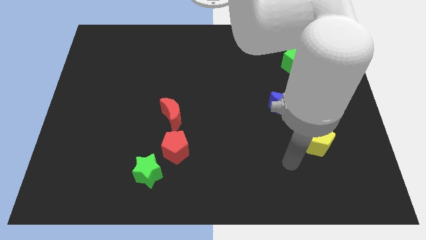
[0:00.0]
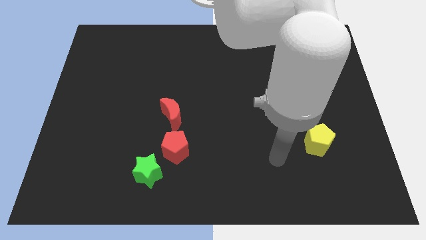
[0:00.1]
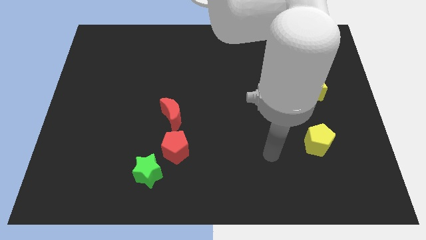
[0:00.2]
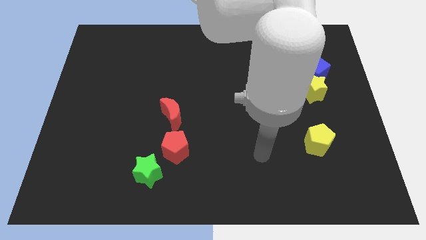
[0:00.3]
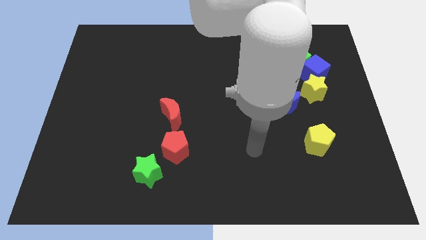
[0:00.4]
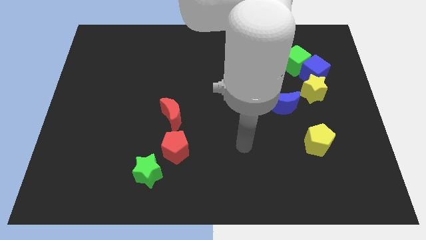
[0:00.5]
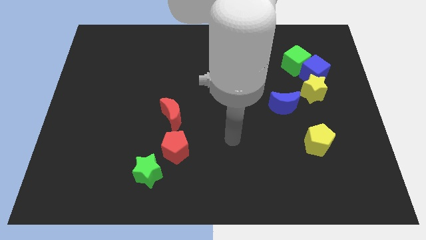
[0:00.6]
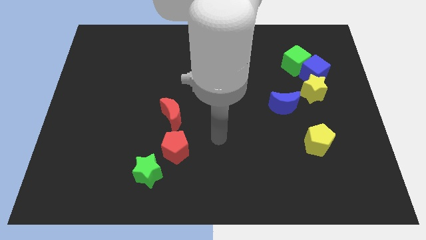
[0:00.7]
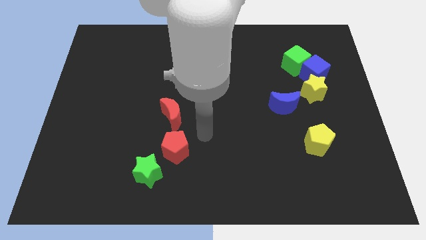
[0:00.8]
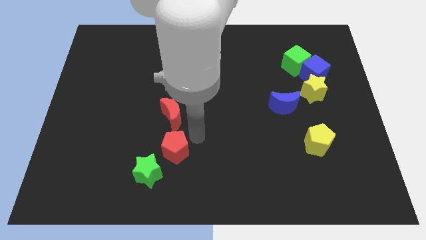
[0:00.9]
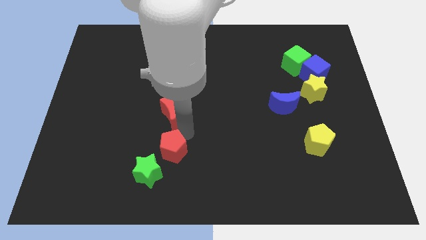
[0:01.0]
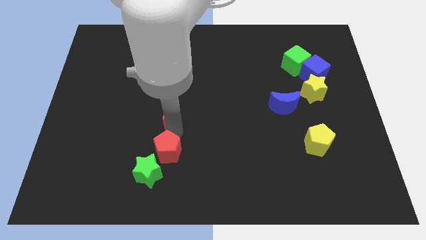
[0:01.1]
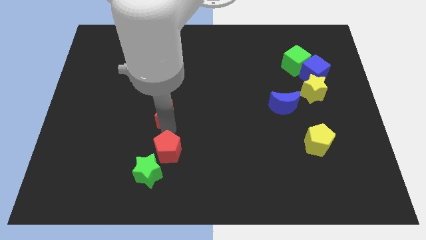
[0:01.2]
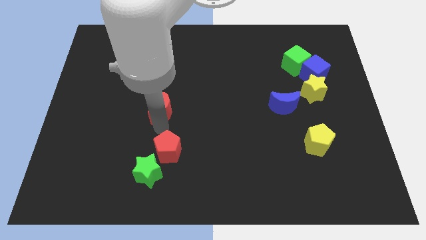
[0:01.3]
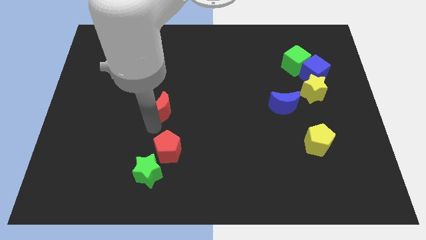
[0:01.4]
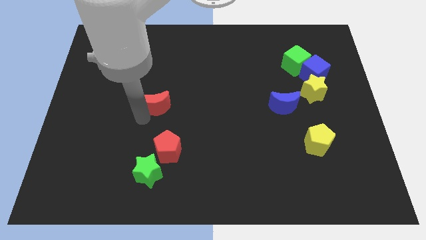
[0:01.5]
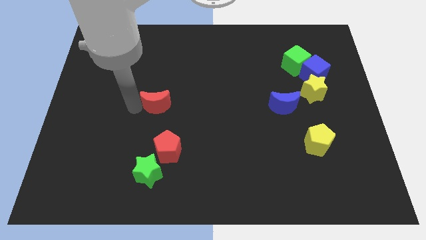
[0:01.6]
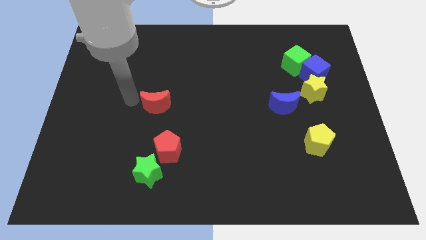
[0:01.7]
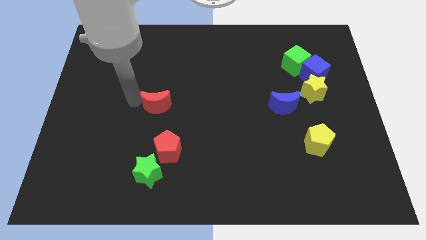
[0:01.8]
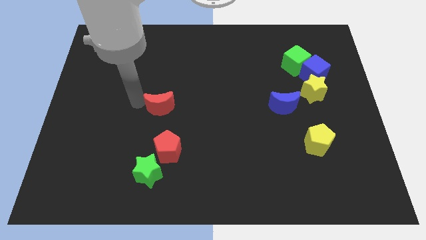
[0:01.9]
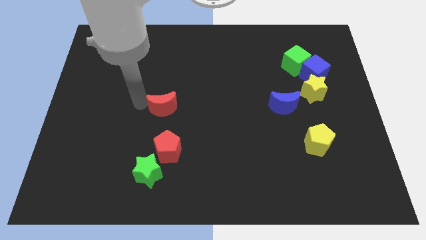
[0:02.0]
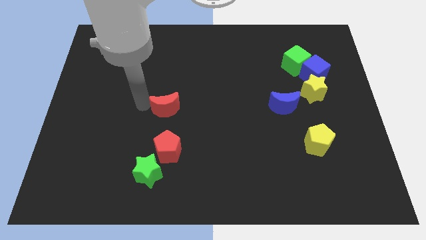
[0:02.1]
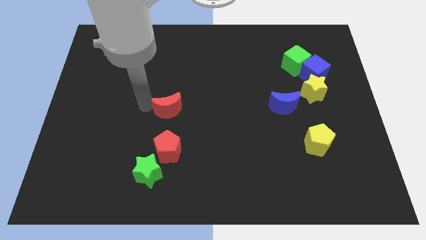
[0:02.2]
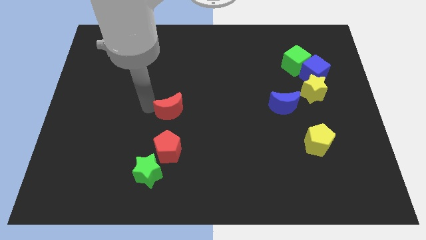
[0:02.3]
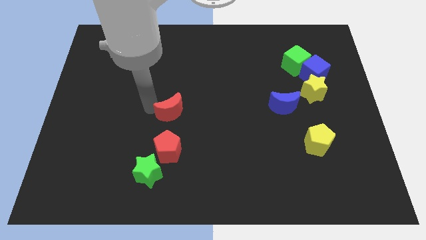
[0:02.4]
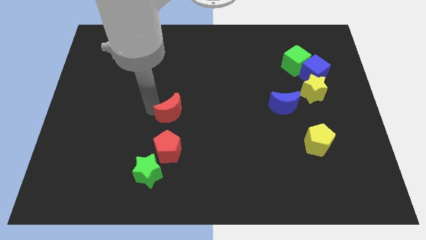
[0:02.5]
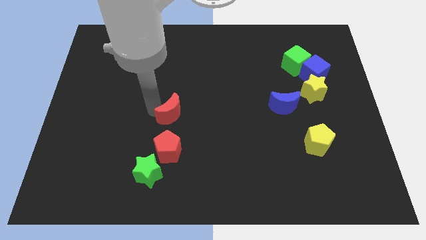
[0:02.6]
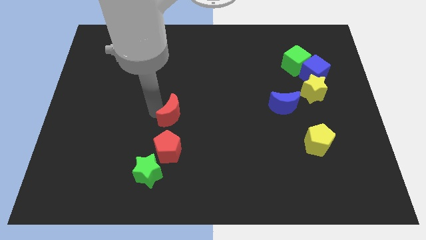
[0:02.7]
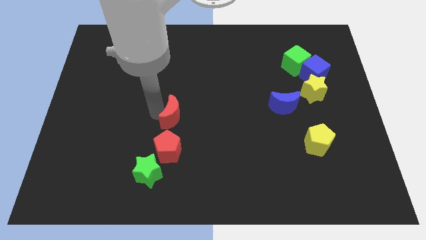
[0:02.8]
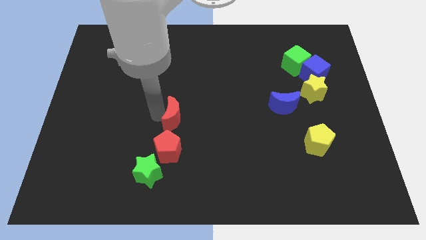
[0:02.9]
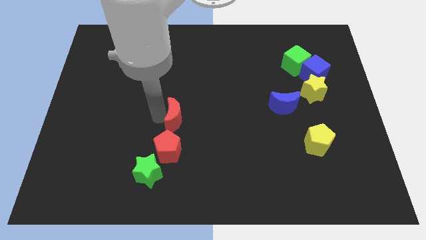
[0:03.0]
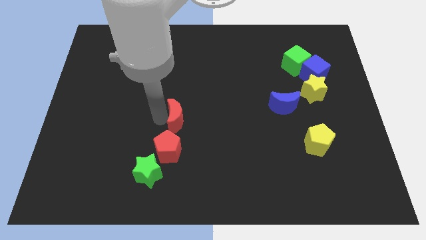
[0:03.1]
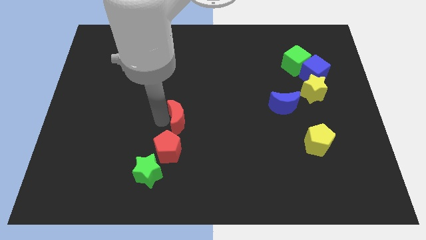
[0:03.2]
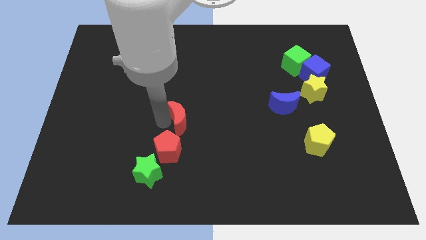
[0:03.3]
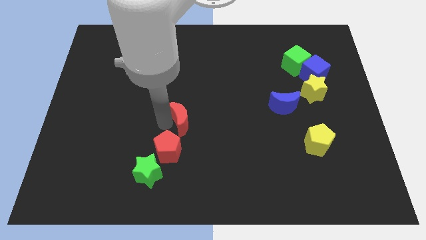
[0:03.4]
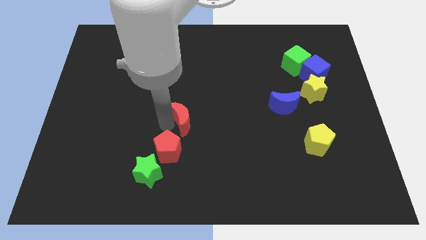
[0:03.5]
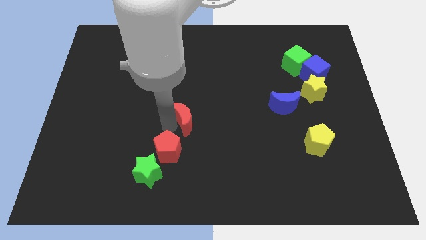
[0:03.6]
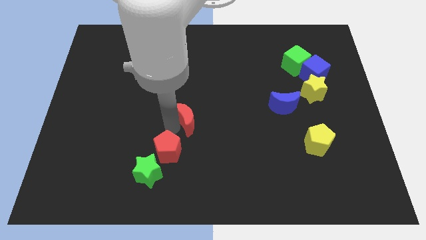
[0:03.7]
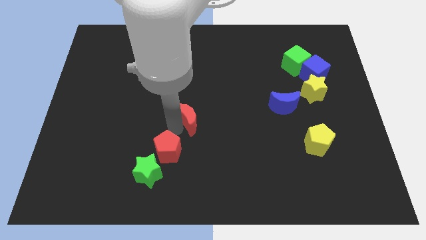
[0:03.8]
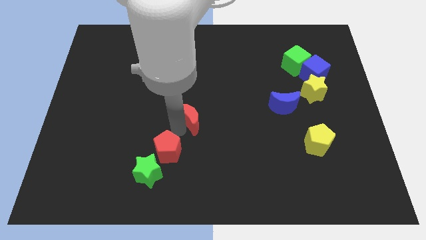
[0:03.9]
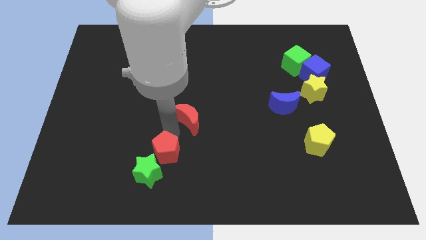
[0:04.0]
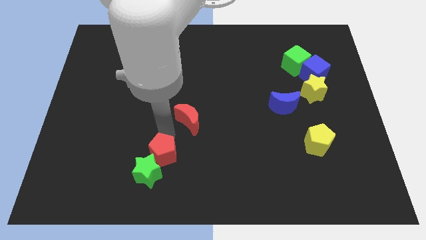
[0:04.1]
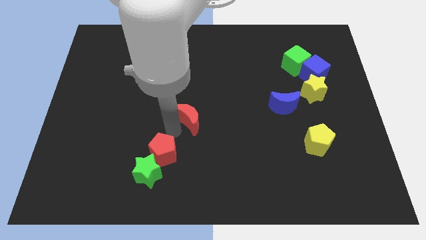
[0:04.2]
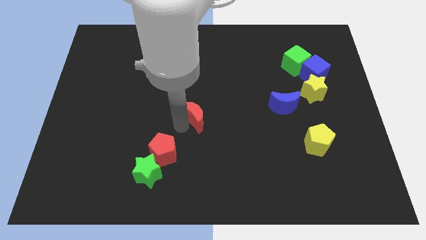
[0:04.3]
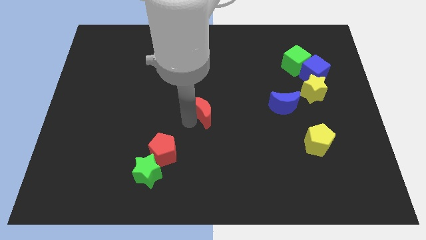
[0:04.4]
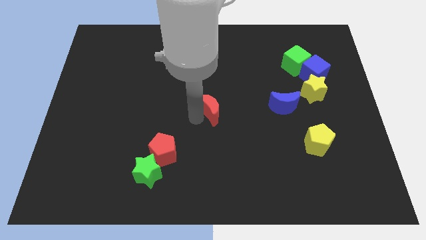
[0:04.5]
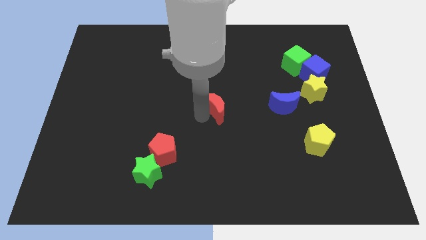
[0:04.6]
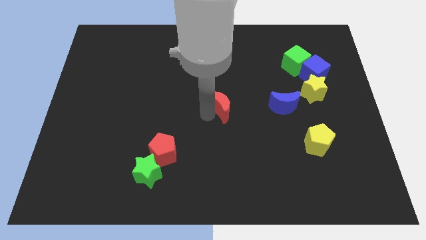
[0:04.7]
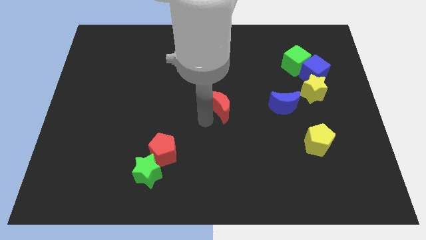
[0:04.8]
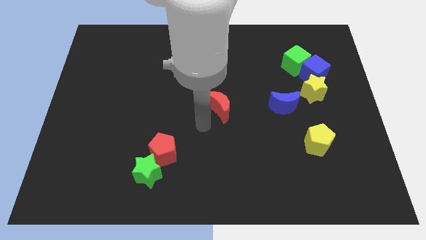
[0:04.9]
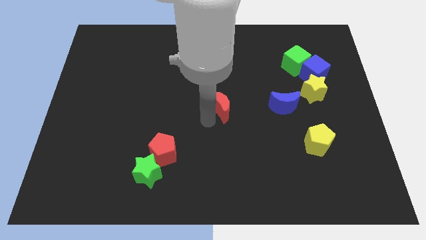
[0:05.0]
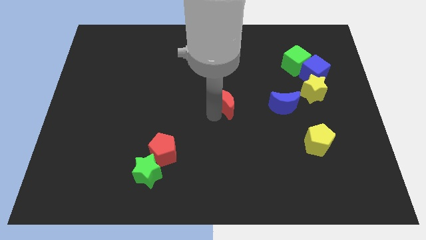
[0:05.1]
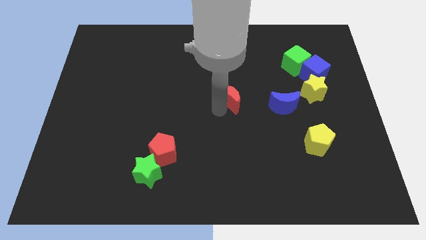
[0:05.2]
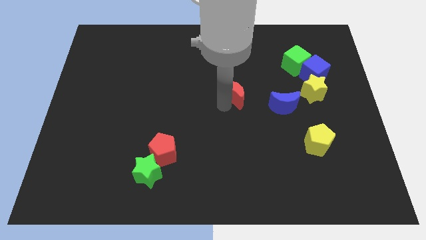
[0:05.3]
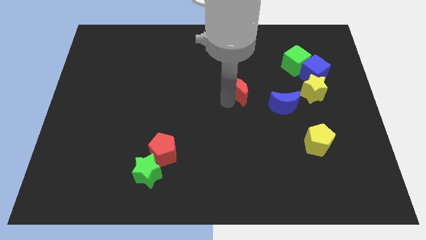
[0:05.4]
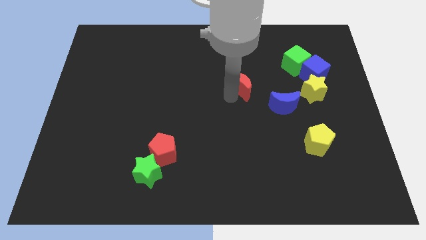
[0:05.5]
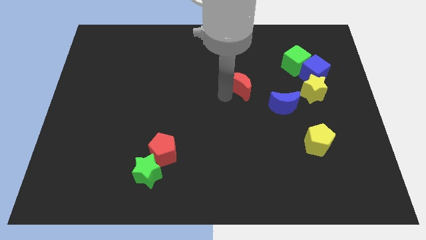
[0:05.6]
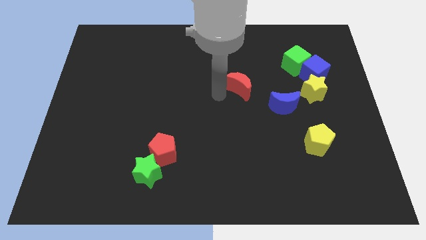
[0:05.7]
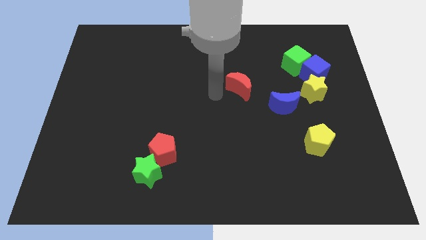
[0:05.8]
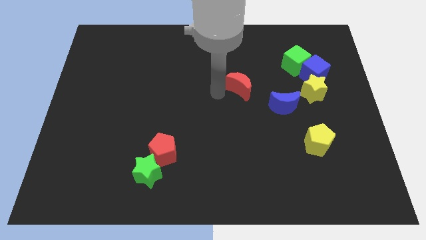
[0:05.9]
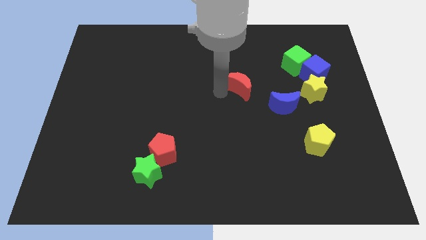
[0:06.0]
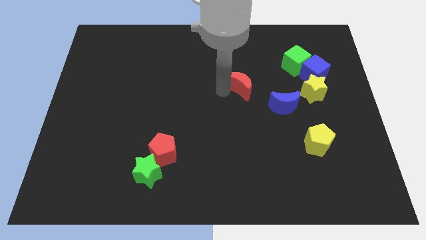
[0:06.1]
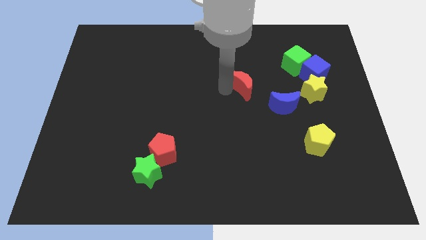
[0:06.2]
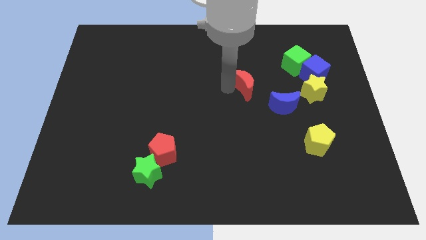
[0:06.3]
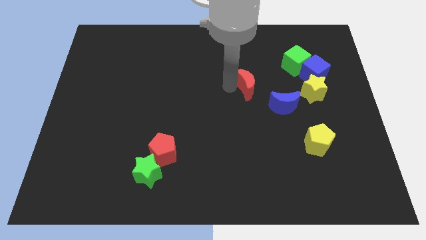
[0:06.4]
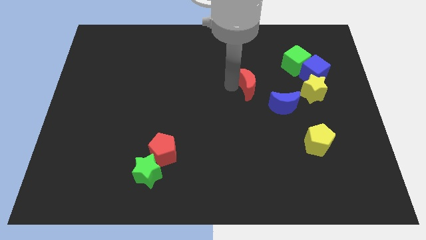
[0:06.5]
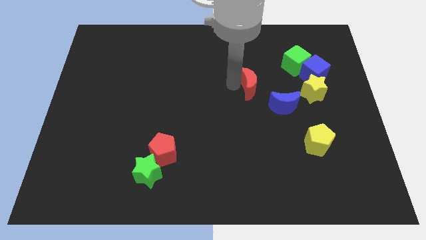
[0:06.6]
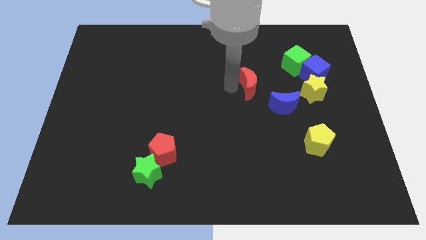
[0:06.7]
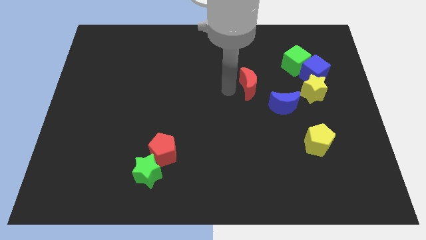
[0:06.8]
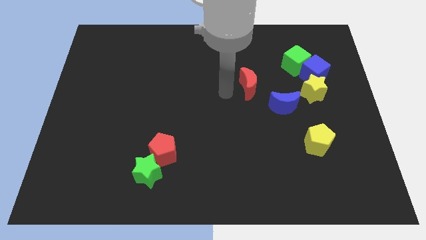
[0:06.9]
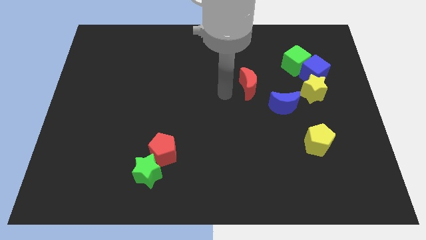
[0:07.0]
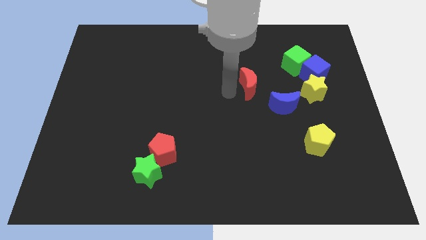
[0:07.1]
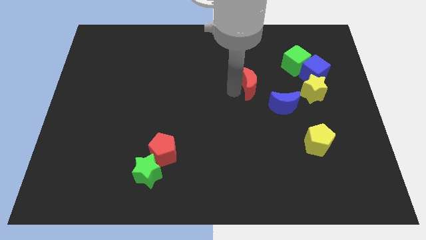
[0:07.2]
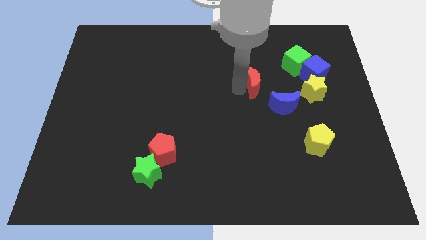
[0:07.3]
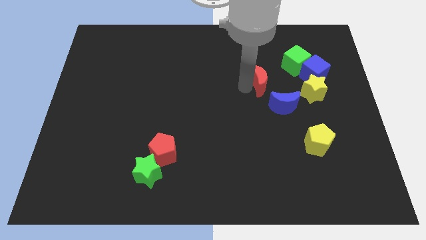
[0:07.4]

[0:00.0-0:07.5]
slide the red moon diagonally down and to the left of the green cube
